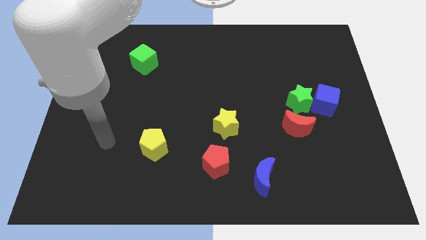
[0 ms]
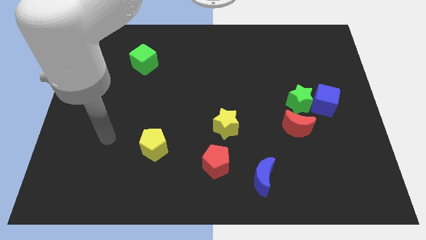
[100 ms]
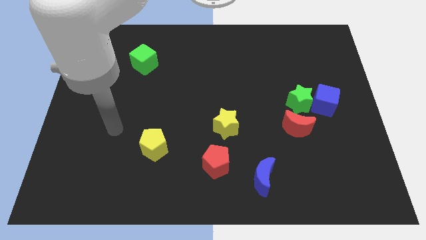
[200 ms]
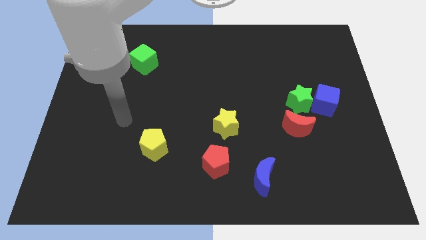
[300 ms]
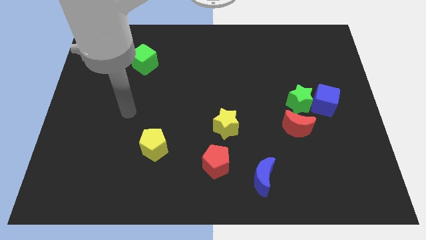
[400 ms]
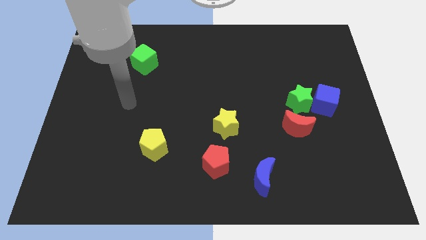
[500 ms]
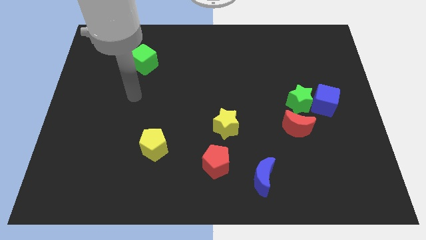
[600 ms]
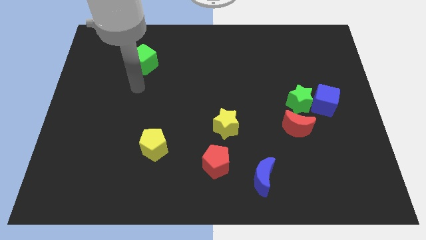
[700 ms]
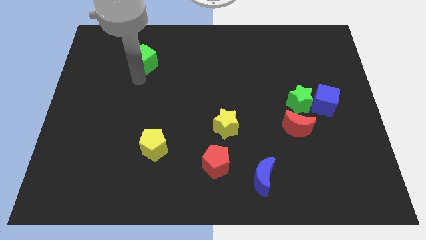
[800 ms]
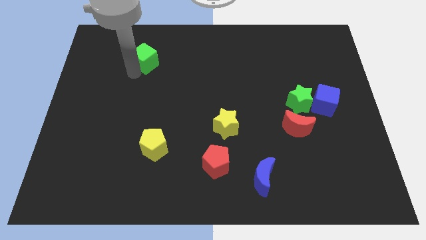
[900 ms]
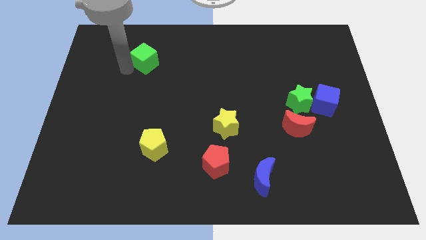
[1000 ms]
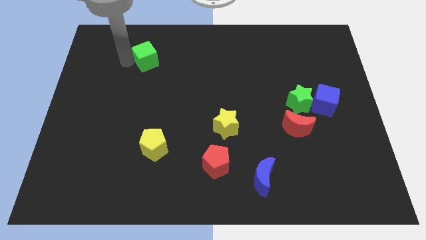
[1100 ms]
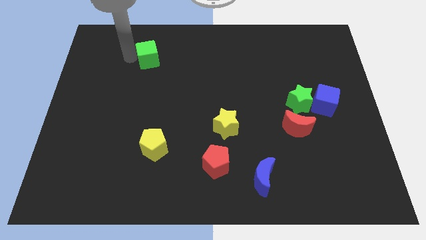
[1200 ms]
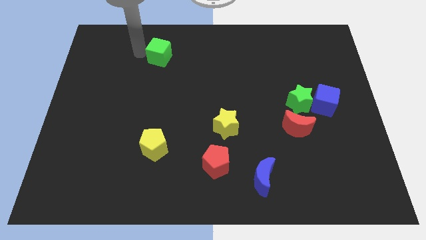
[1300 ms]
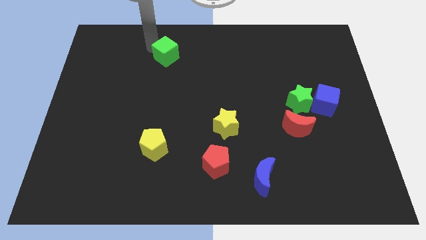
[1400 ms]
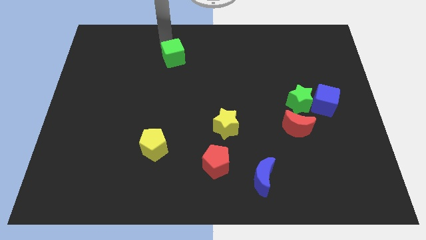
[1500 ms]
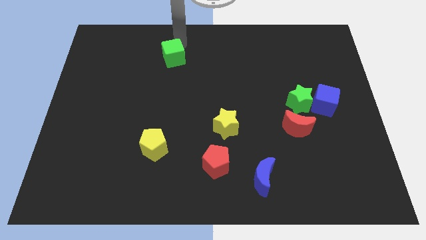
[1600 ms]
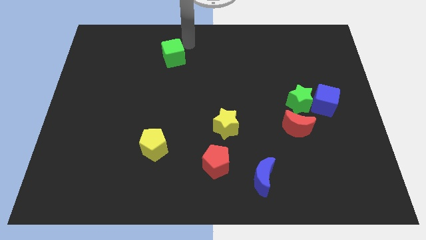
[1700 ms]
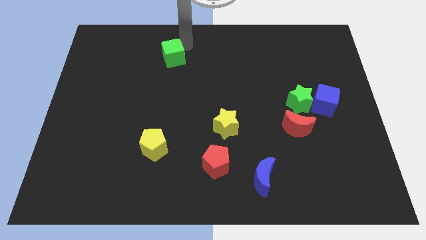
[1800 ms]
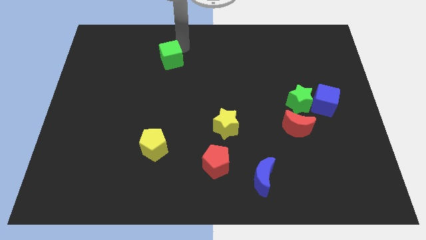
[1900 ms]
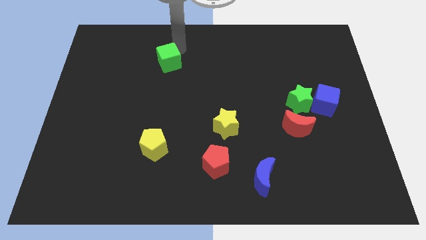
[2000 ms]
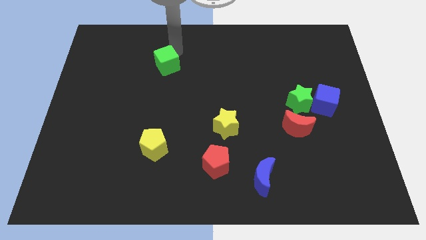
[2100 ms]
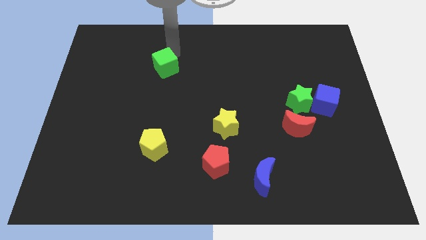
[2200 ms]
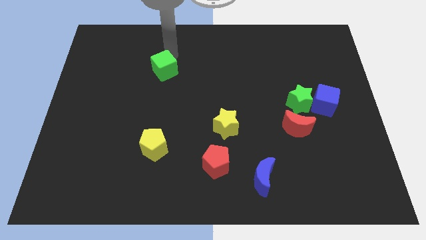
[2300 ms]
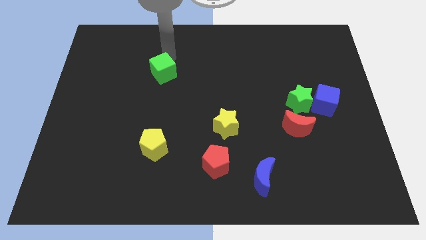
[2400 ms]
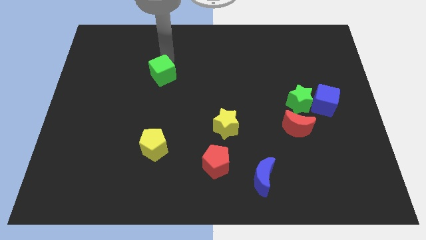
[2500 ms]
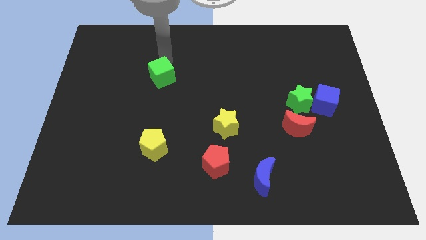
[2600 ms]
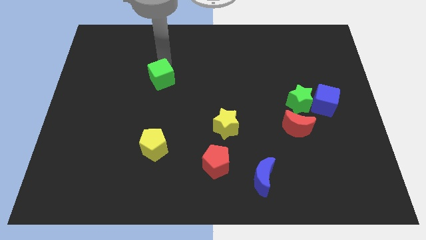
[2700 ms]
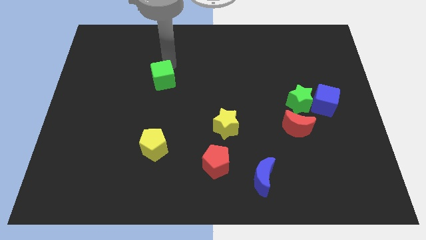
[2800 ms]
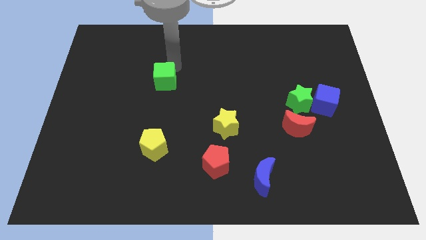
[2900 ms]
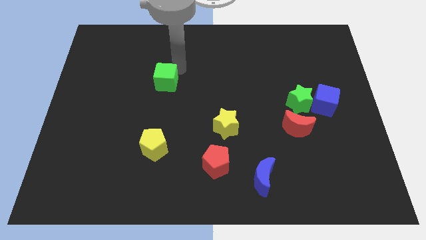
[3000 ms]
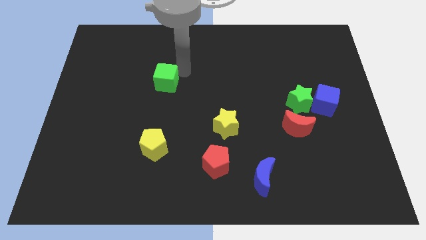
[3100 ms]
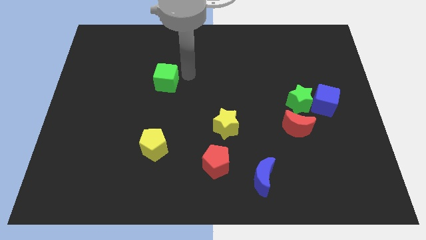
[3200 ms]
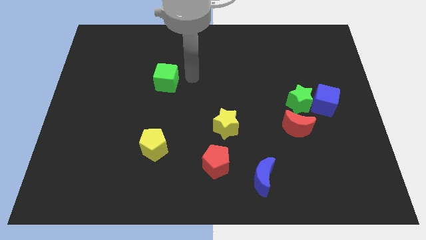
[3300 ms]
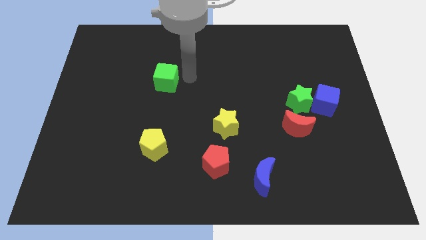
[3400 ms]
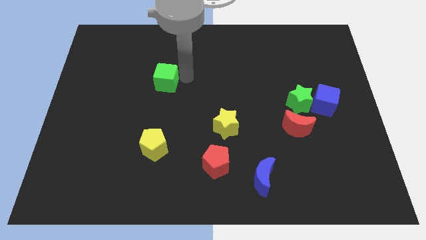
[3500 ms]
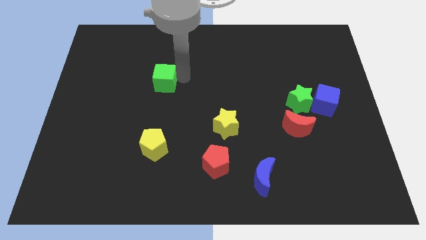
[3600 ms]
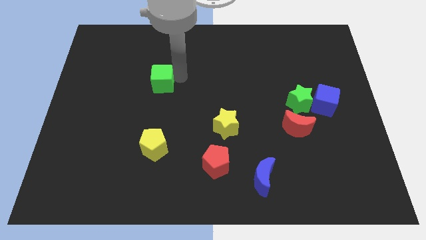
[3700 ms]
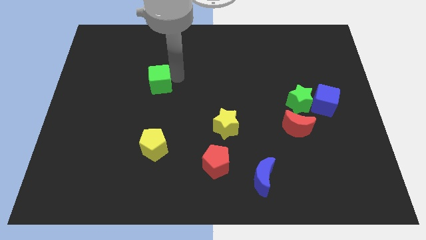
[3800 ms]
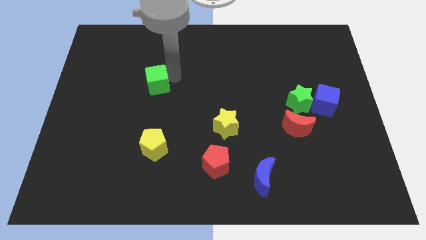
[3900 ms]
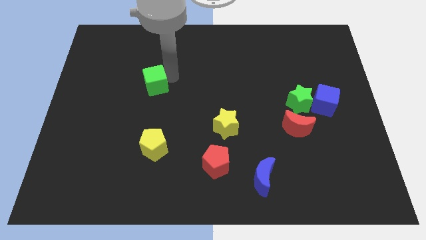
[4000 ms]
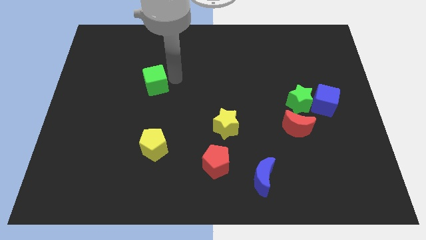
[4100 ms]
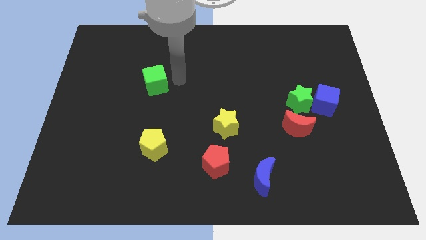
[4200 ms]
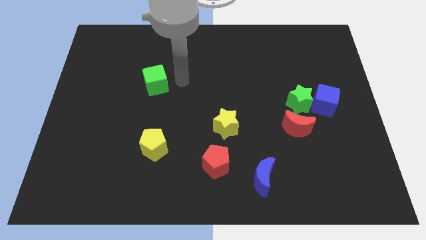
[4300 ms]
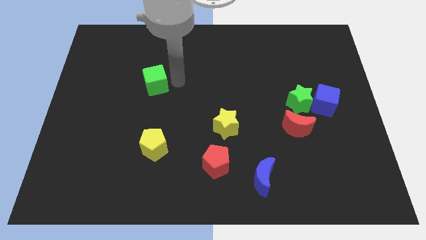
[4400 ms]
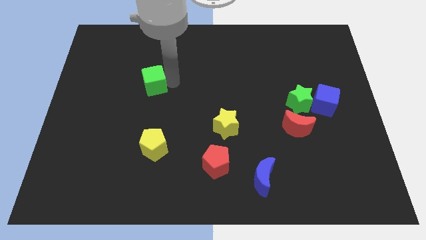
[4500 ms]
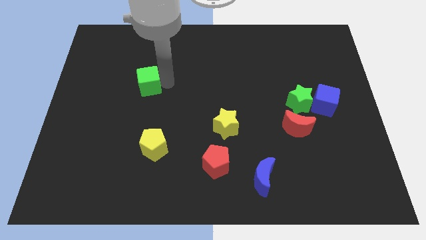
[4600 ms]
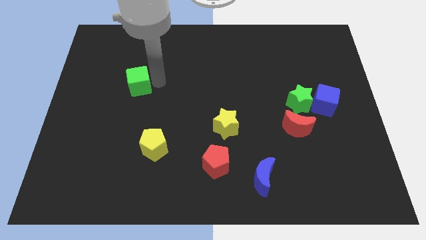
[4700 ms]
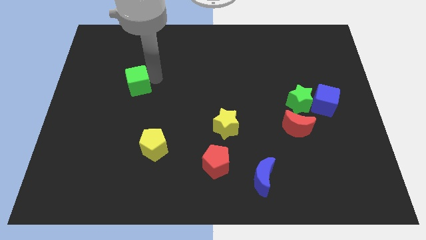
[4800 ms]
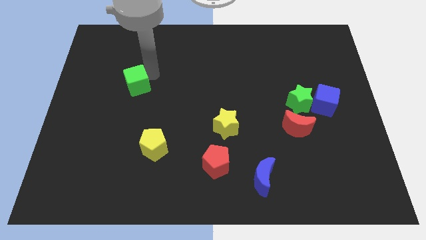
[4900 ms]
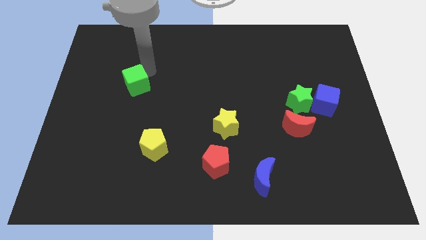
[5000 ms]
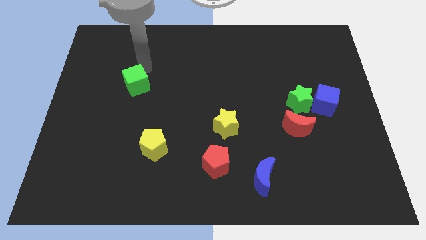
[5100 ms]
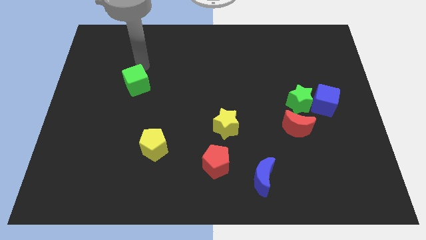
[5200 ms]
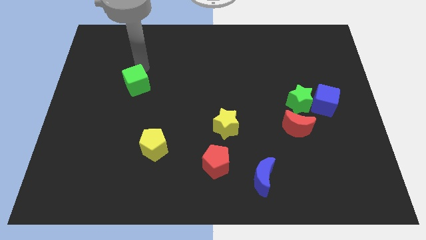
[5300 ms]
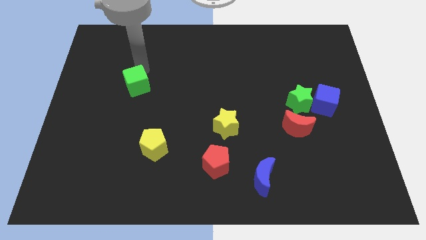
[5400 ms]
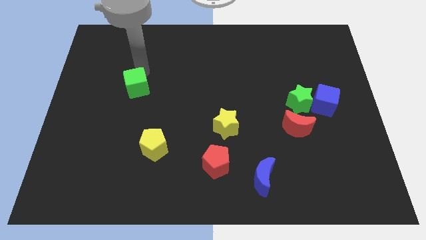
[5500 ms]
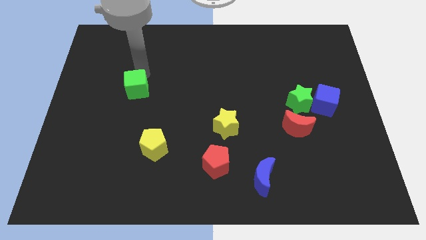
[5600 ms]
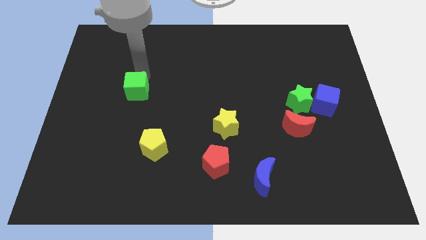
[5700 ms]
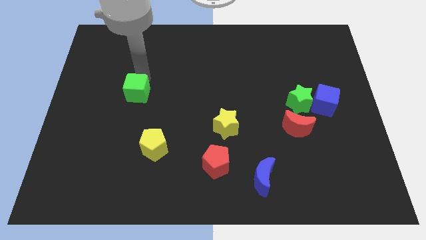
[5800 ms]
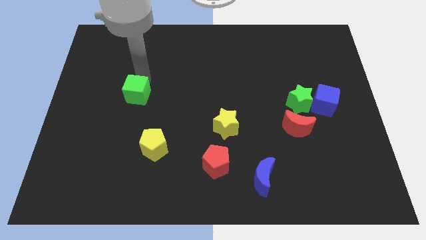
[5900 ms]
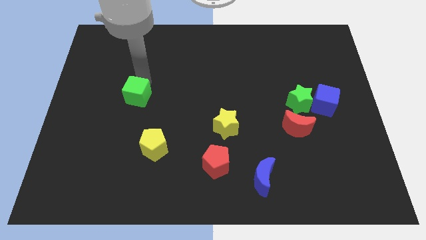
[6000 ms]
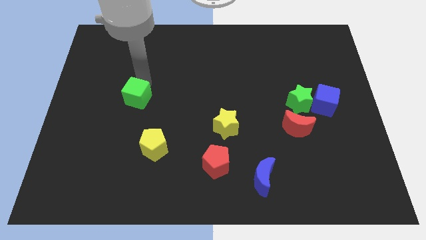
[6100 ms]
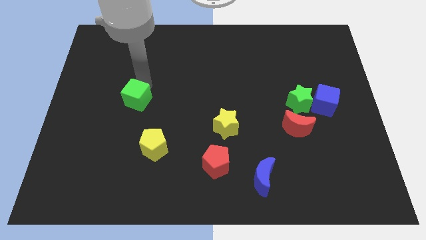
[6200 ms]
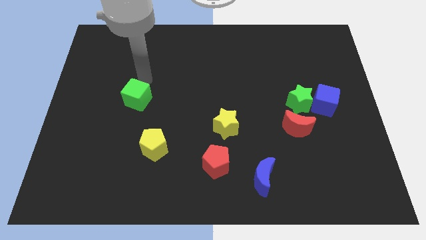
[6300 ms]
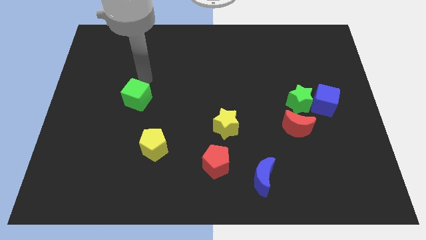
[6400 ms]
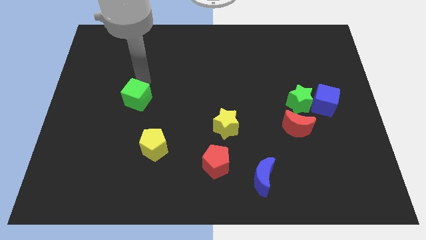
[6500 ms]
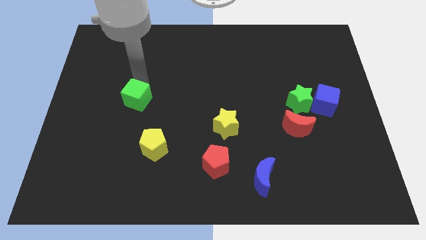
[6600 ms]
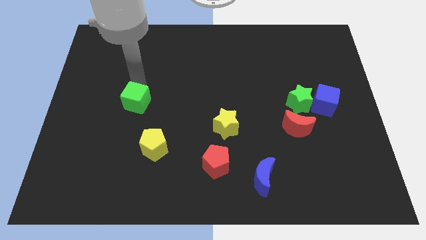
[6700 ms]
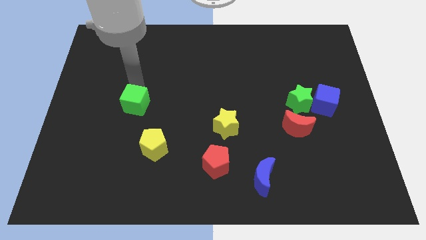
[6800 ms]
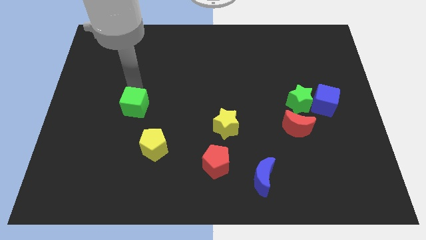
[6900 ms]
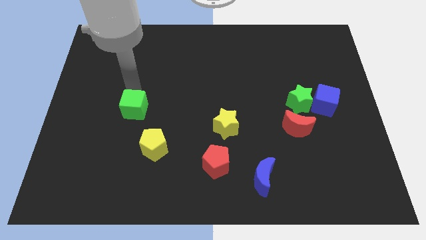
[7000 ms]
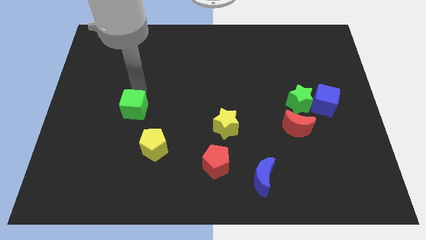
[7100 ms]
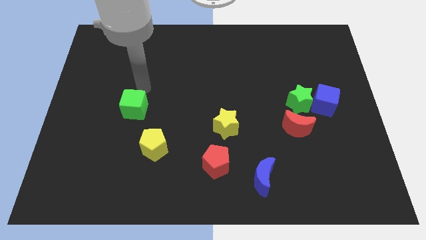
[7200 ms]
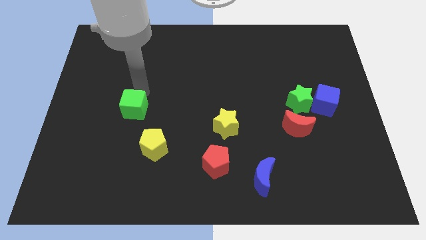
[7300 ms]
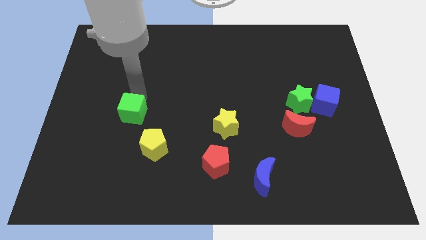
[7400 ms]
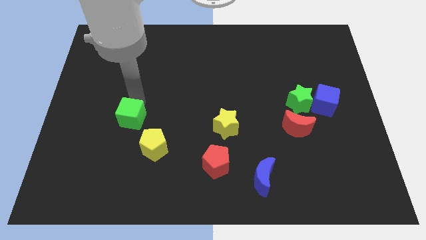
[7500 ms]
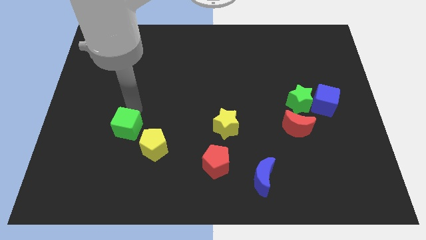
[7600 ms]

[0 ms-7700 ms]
slide the green cube down
